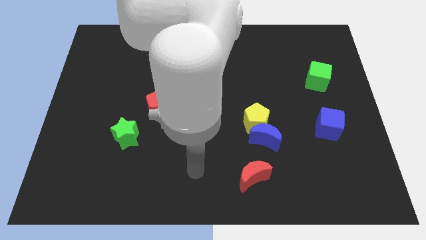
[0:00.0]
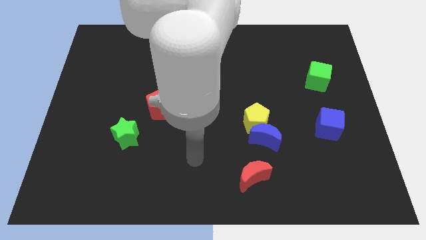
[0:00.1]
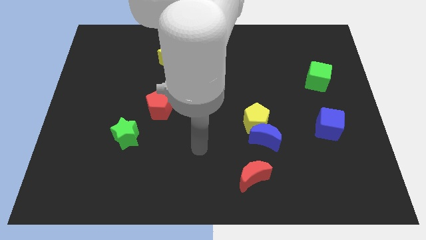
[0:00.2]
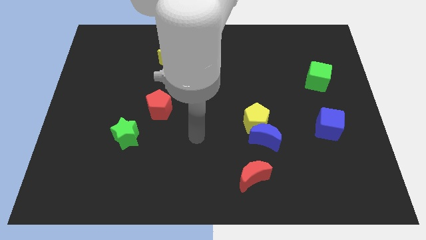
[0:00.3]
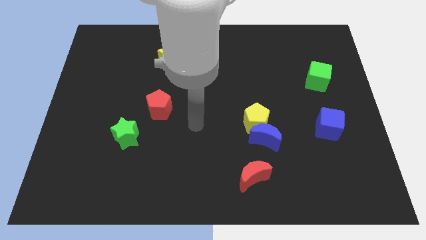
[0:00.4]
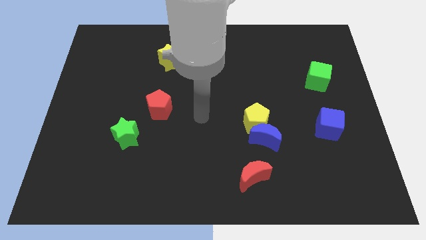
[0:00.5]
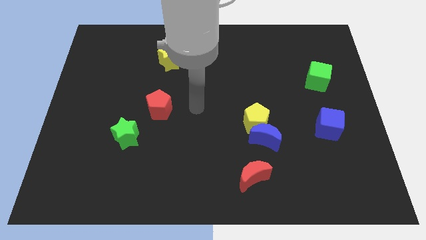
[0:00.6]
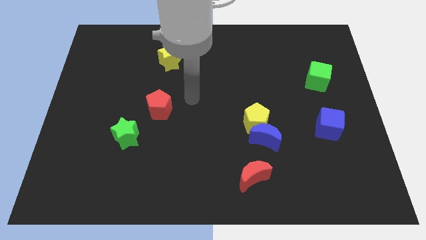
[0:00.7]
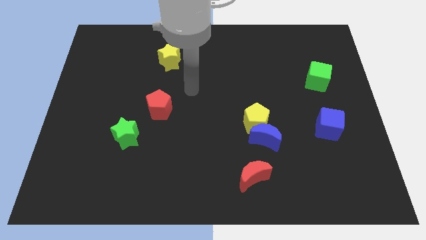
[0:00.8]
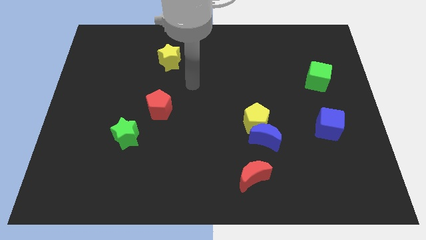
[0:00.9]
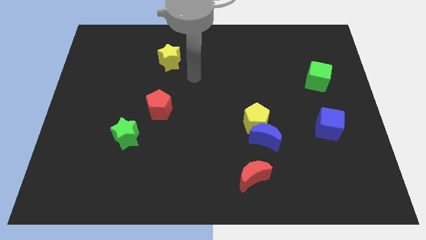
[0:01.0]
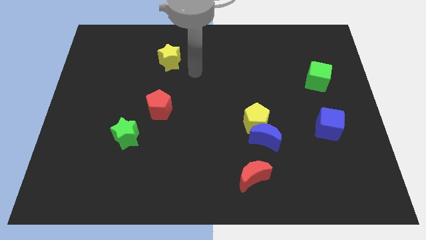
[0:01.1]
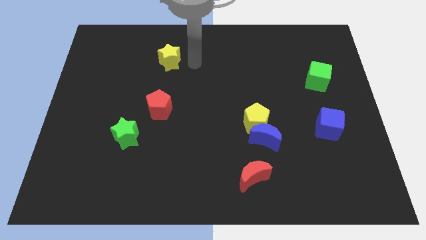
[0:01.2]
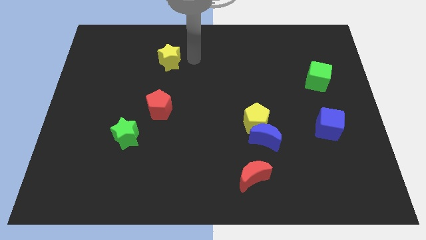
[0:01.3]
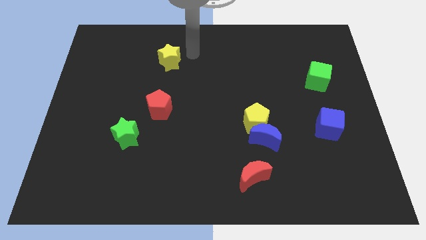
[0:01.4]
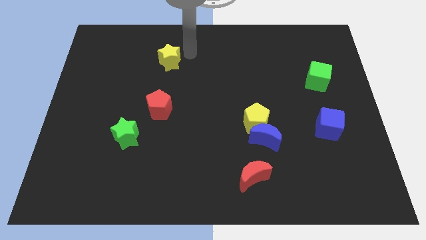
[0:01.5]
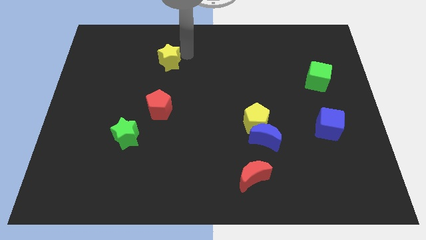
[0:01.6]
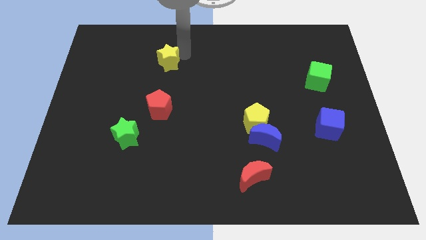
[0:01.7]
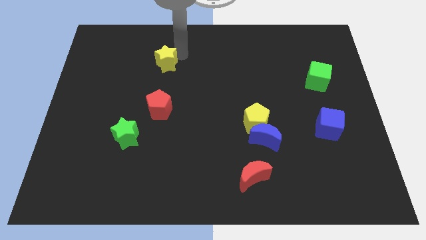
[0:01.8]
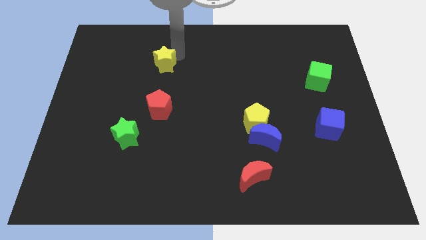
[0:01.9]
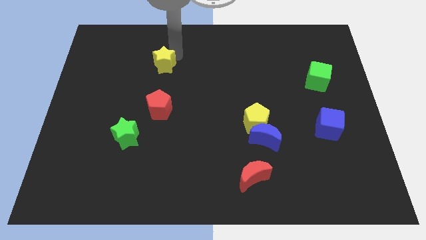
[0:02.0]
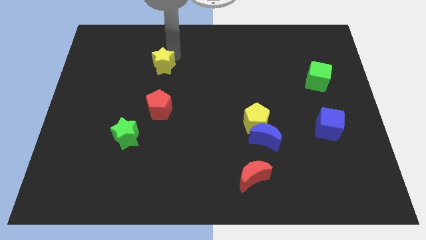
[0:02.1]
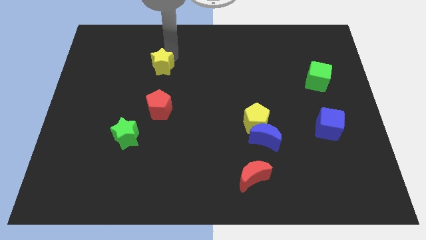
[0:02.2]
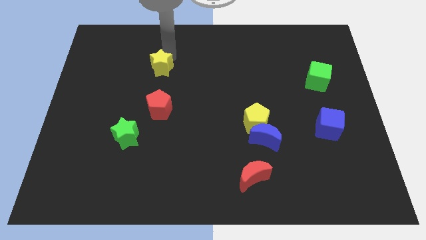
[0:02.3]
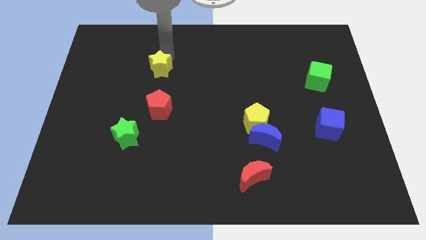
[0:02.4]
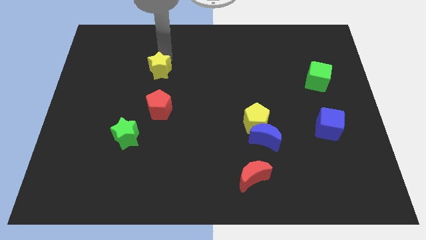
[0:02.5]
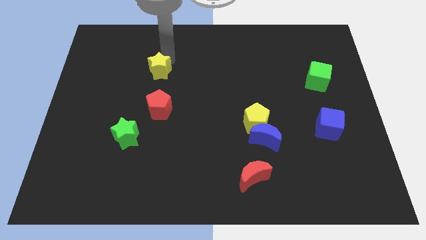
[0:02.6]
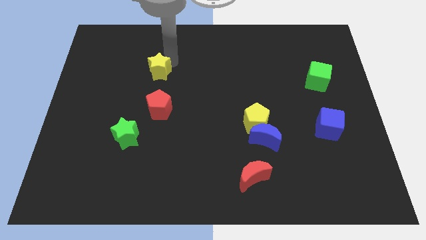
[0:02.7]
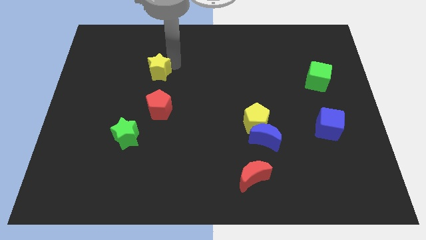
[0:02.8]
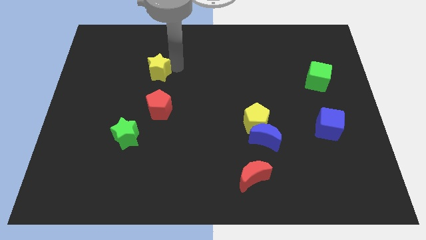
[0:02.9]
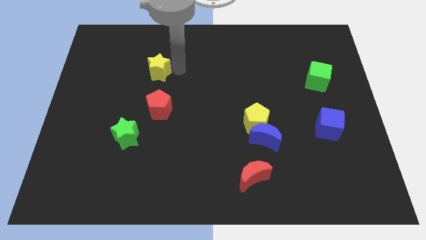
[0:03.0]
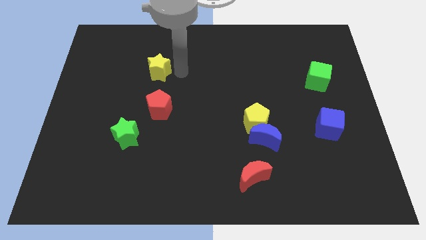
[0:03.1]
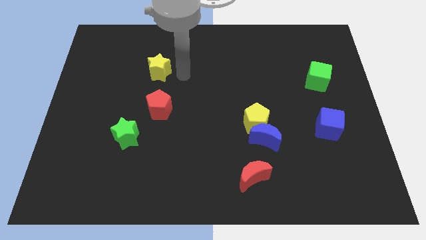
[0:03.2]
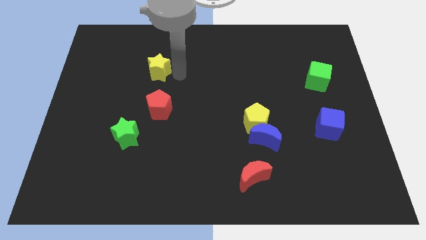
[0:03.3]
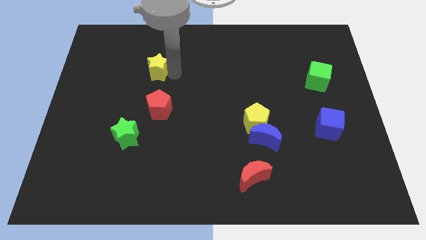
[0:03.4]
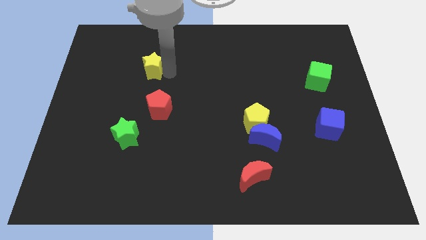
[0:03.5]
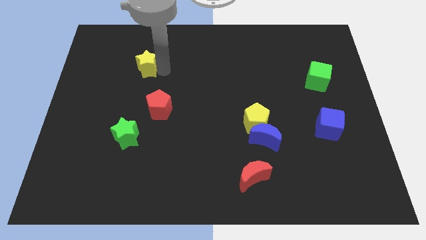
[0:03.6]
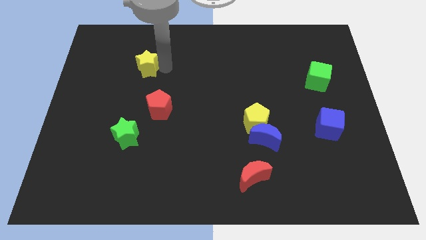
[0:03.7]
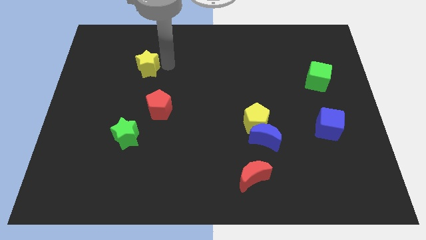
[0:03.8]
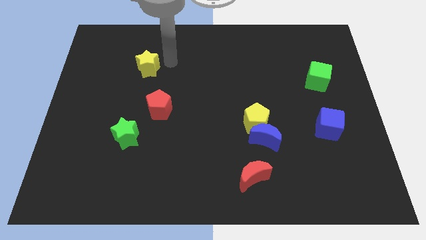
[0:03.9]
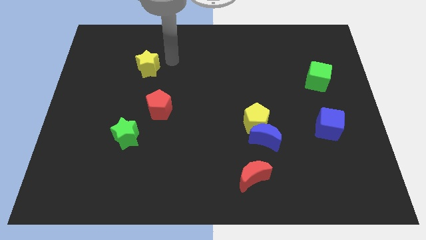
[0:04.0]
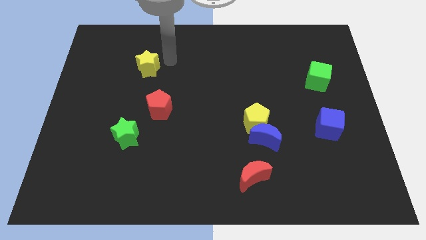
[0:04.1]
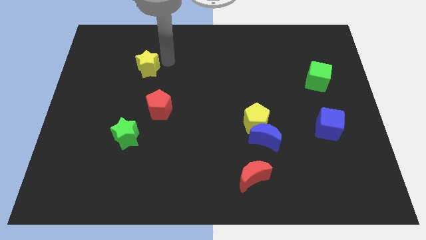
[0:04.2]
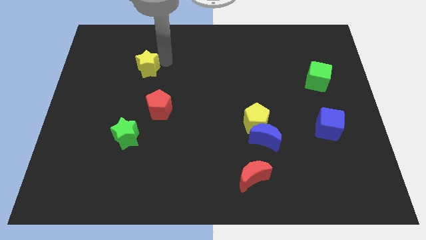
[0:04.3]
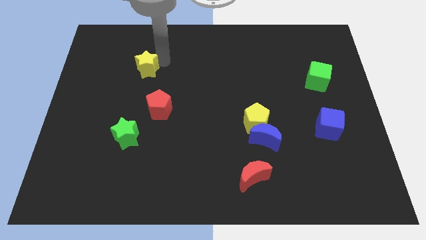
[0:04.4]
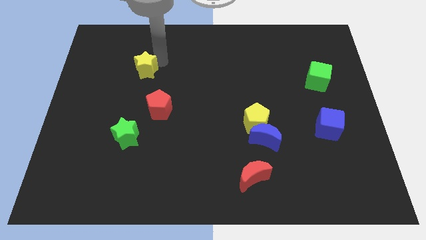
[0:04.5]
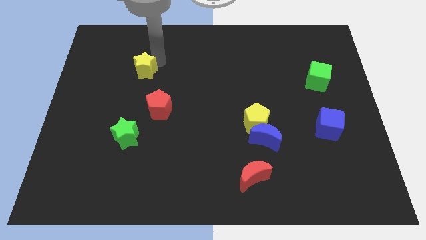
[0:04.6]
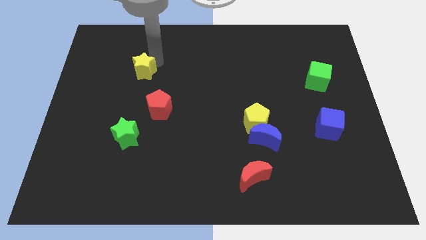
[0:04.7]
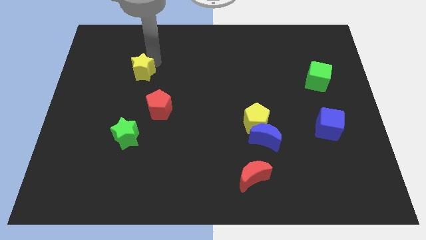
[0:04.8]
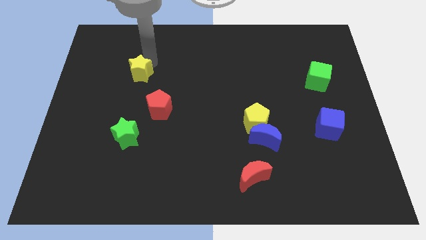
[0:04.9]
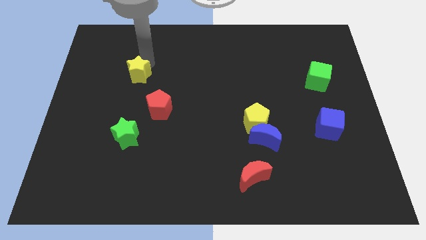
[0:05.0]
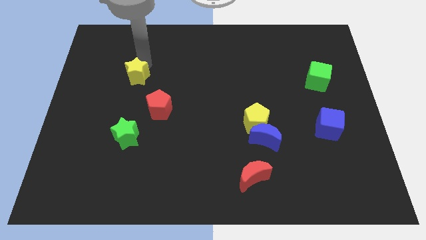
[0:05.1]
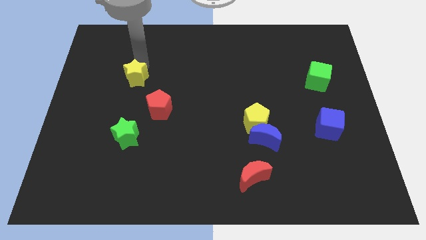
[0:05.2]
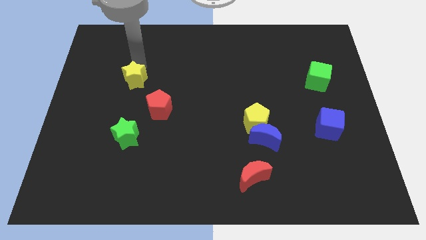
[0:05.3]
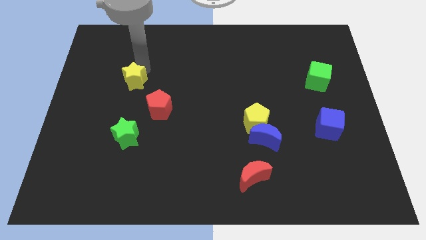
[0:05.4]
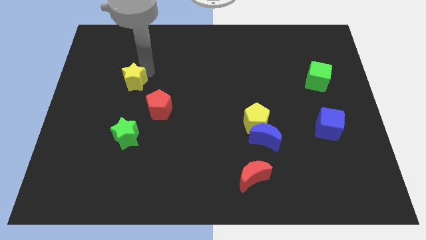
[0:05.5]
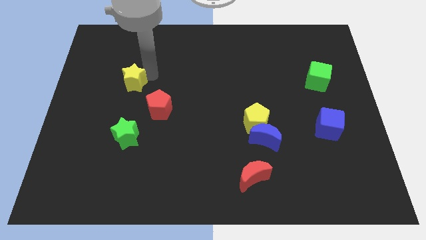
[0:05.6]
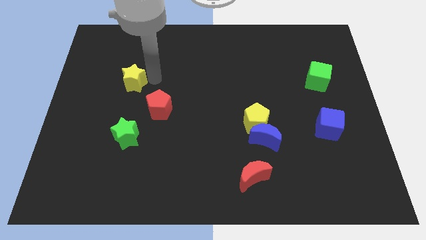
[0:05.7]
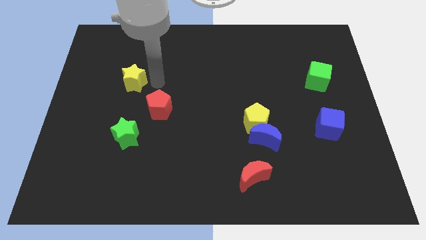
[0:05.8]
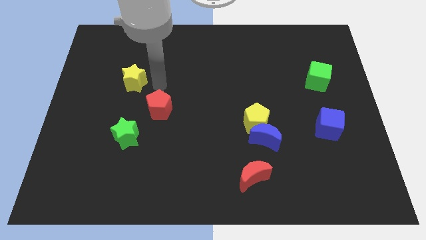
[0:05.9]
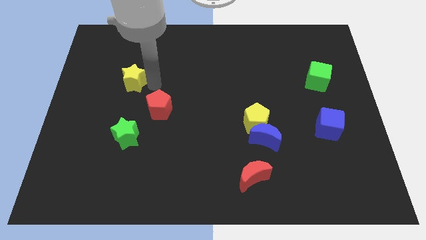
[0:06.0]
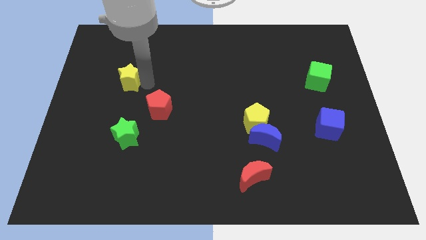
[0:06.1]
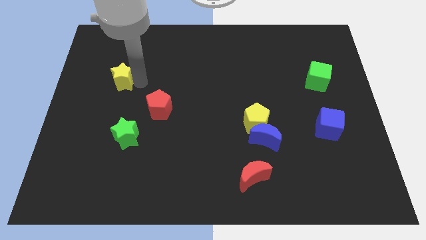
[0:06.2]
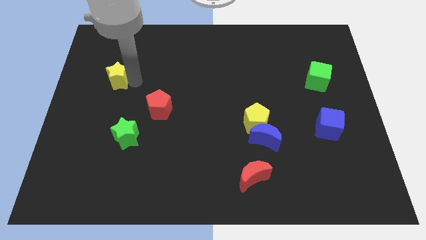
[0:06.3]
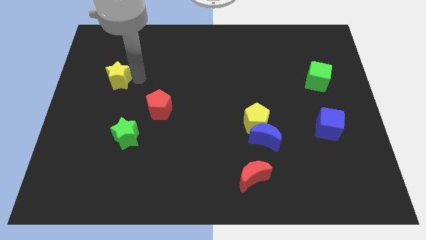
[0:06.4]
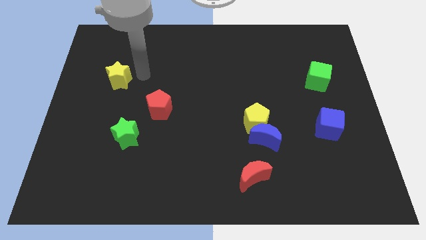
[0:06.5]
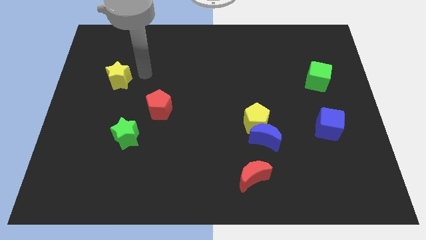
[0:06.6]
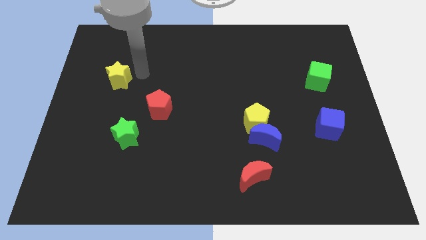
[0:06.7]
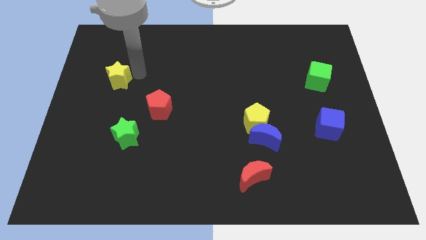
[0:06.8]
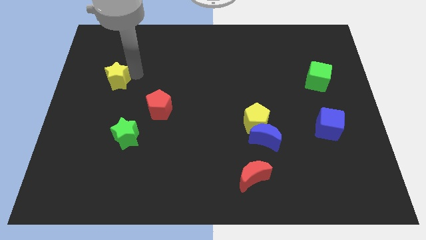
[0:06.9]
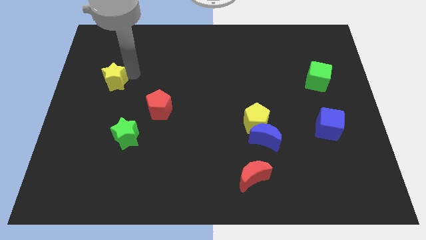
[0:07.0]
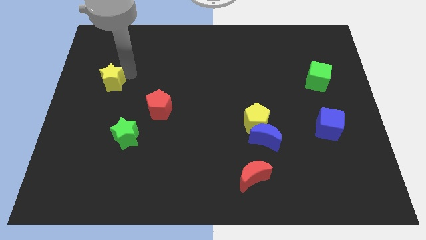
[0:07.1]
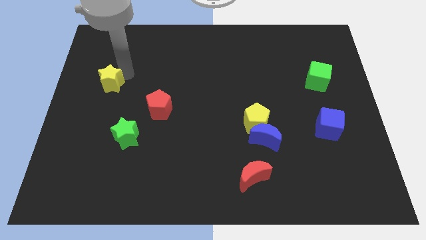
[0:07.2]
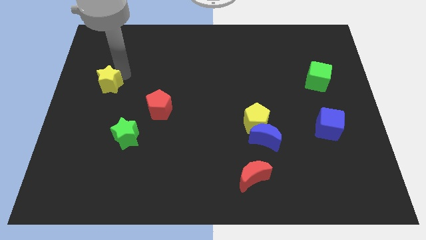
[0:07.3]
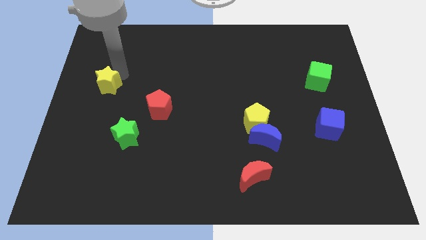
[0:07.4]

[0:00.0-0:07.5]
push the yellow star to the left side
